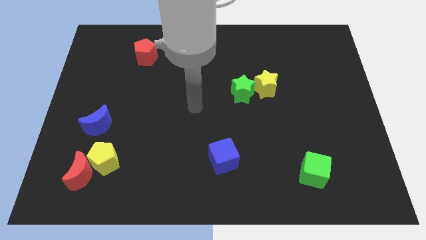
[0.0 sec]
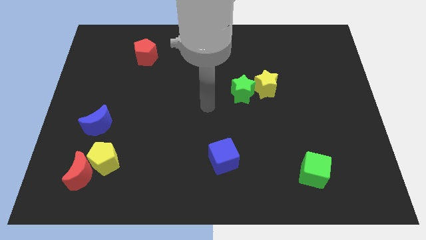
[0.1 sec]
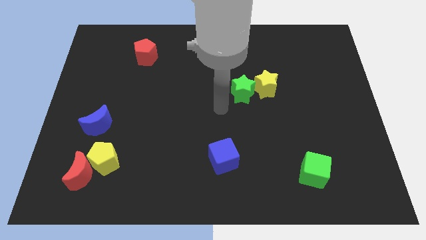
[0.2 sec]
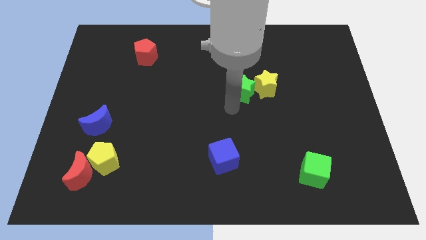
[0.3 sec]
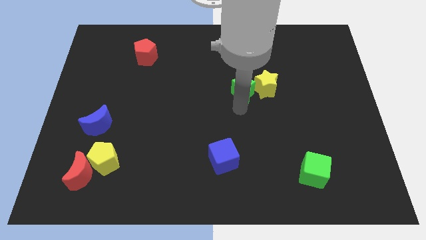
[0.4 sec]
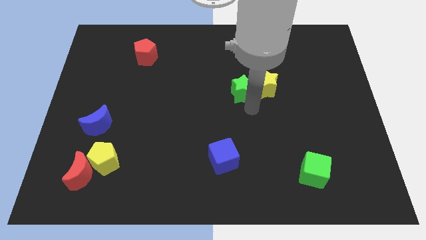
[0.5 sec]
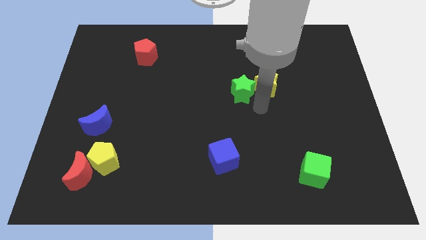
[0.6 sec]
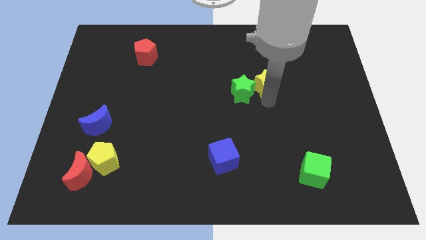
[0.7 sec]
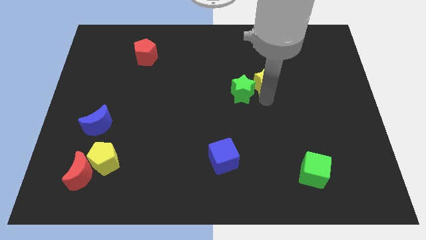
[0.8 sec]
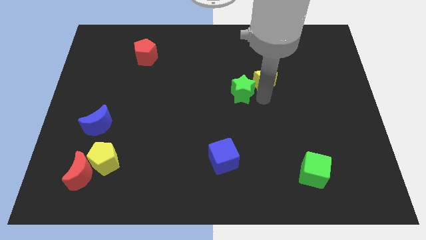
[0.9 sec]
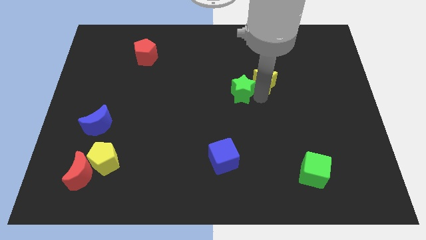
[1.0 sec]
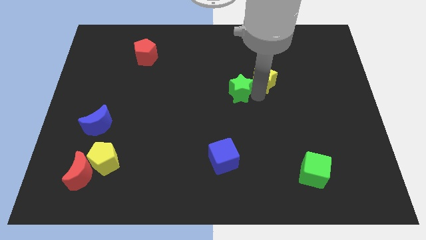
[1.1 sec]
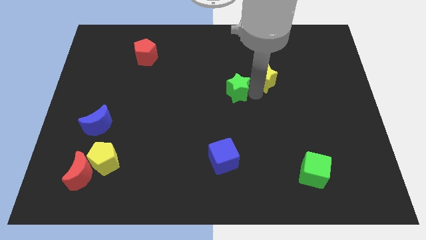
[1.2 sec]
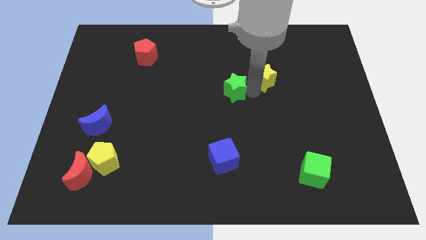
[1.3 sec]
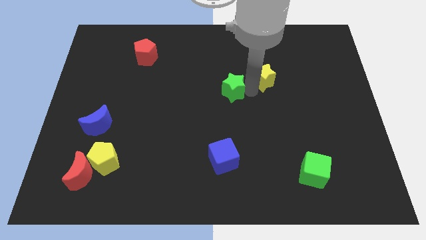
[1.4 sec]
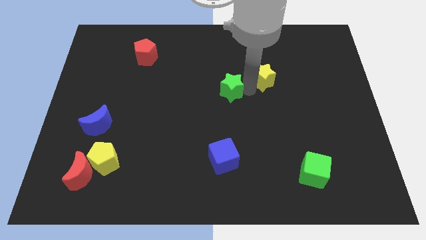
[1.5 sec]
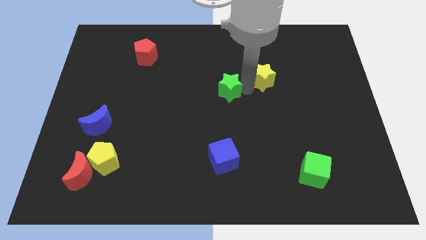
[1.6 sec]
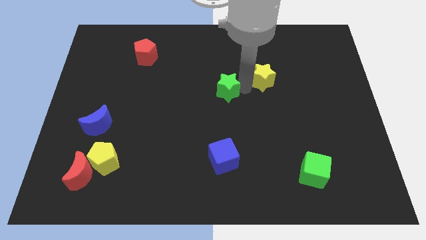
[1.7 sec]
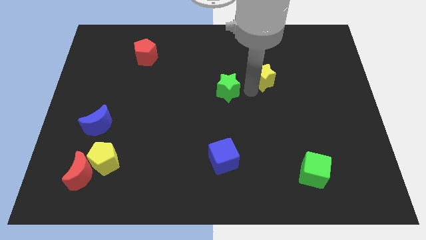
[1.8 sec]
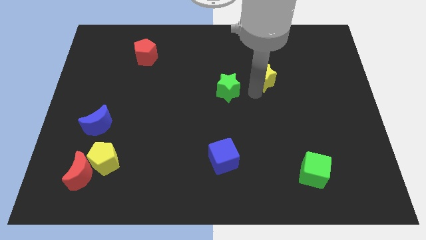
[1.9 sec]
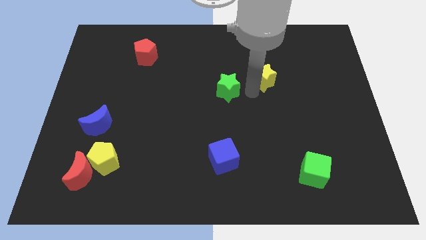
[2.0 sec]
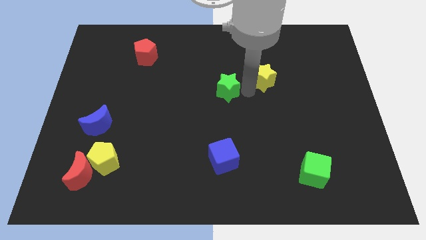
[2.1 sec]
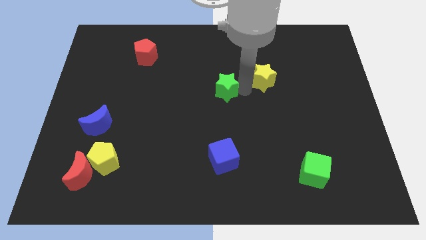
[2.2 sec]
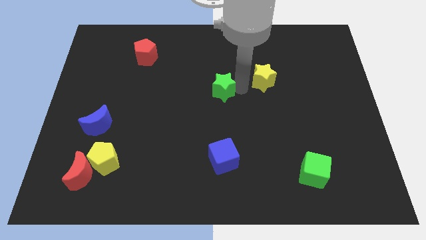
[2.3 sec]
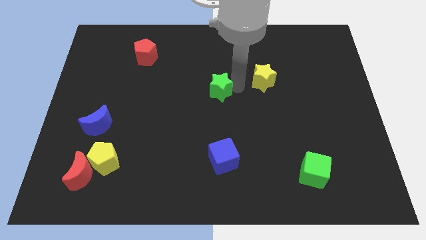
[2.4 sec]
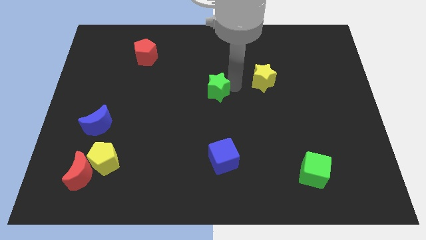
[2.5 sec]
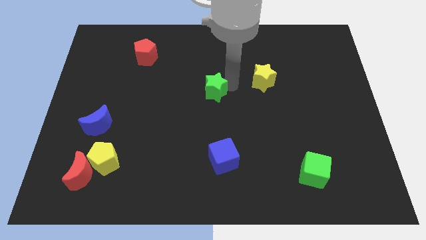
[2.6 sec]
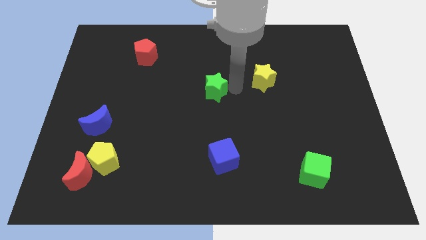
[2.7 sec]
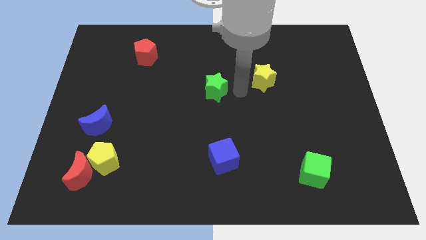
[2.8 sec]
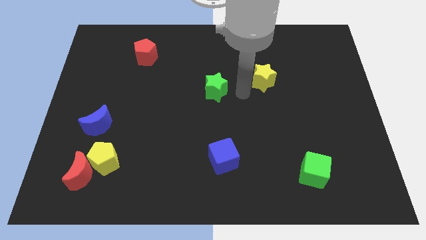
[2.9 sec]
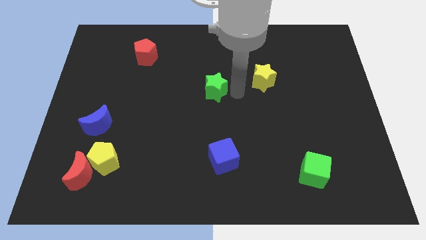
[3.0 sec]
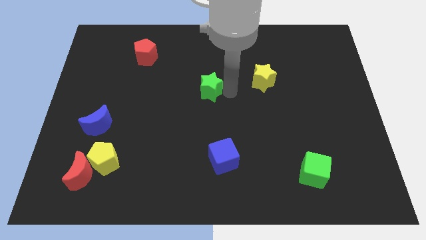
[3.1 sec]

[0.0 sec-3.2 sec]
slightly push the green star left

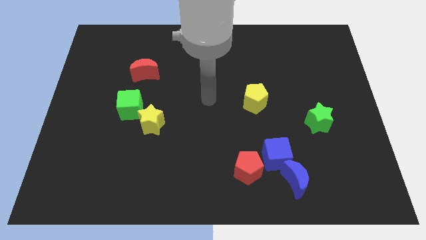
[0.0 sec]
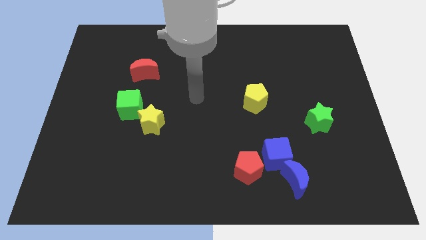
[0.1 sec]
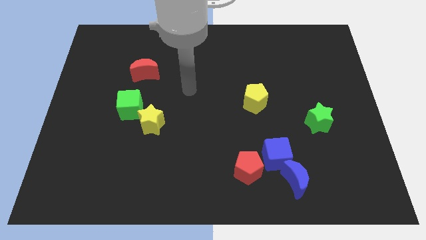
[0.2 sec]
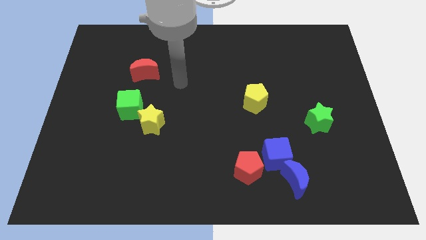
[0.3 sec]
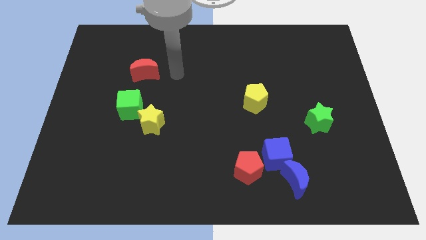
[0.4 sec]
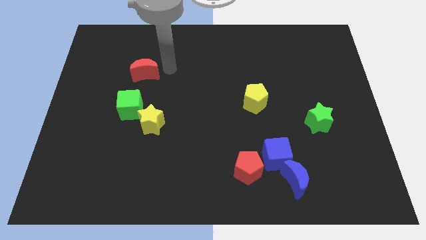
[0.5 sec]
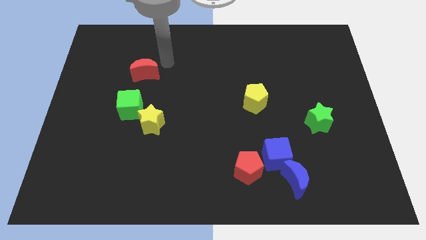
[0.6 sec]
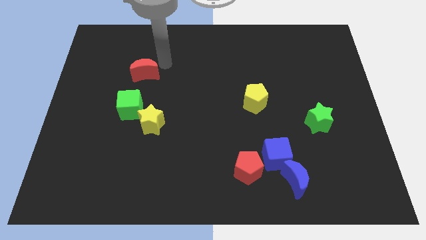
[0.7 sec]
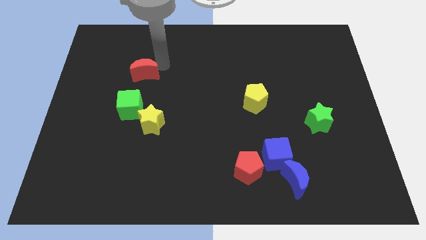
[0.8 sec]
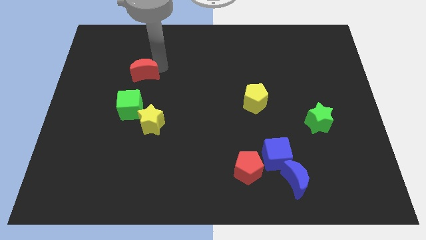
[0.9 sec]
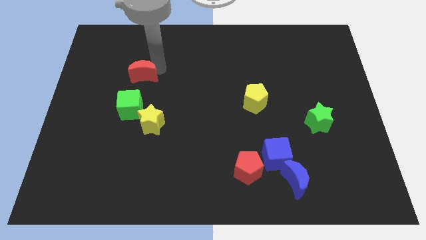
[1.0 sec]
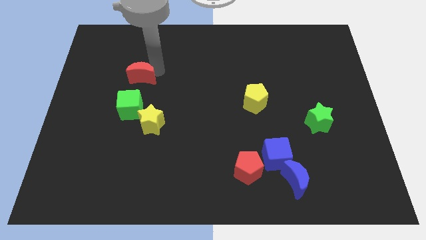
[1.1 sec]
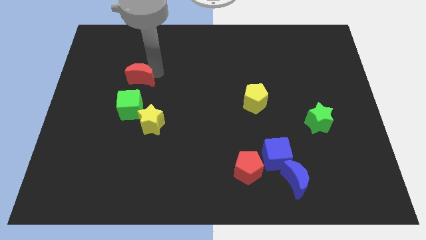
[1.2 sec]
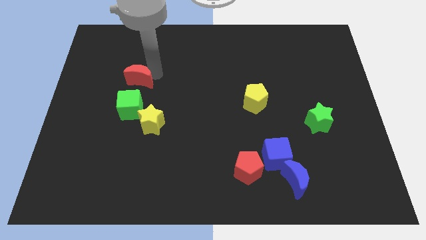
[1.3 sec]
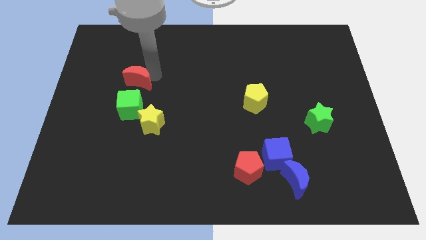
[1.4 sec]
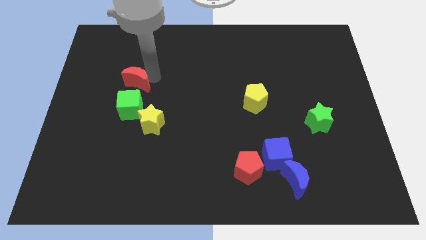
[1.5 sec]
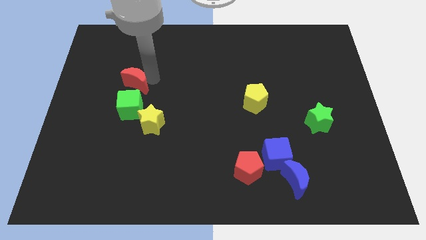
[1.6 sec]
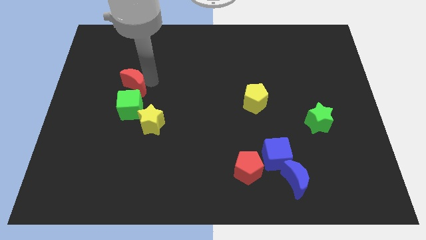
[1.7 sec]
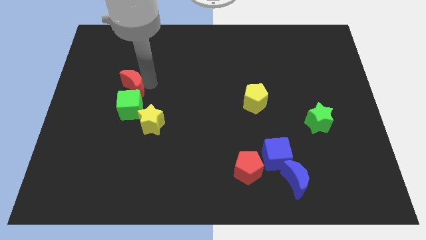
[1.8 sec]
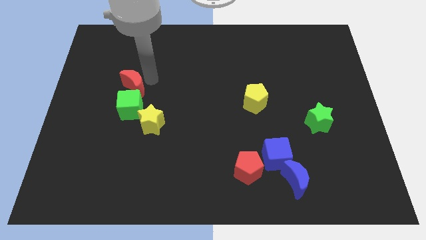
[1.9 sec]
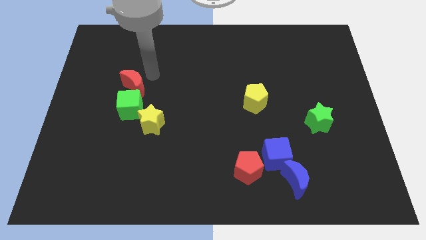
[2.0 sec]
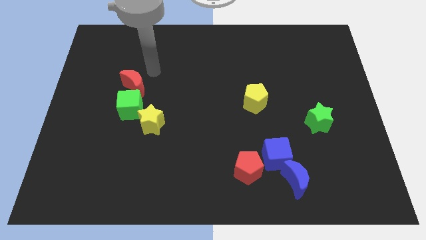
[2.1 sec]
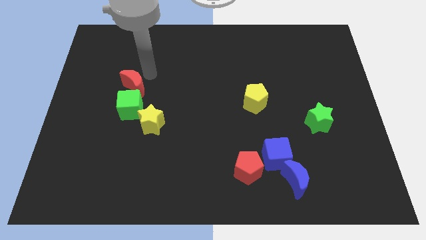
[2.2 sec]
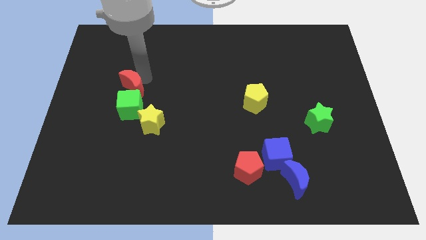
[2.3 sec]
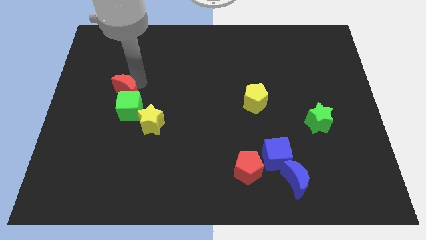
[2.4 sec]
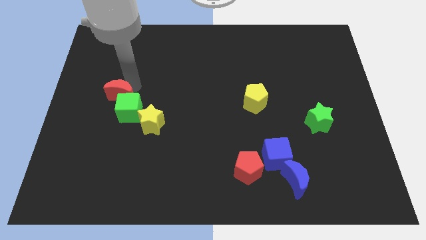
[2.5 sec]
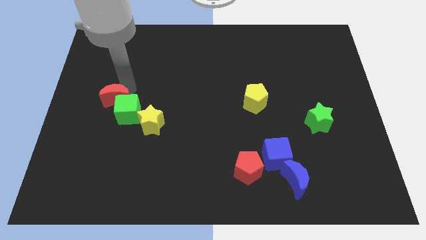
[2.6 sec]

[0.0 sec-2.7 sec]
slide the red moon down slightly

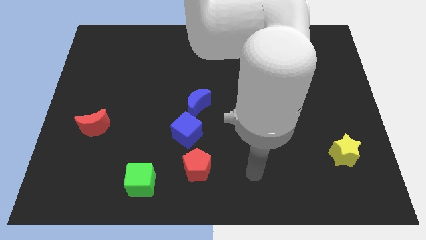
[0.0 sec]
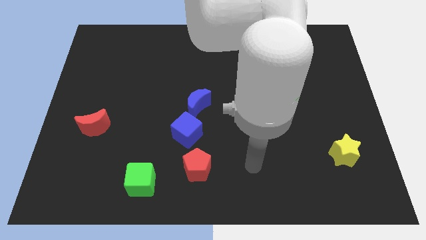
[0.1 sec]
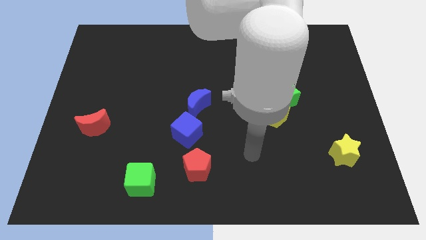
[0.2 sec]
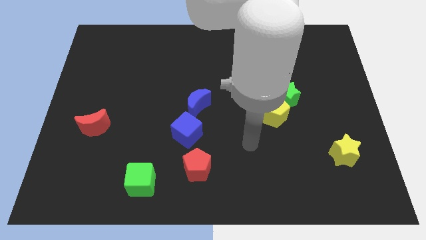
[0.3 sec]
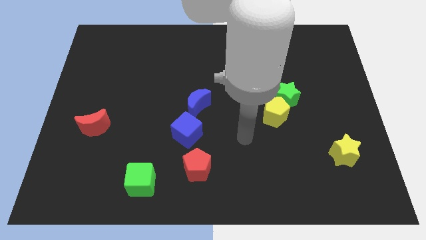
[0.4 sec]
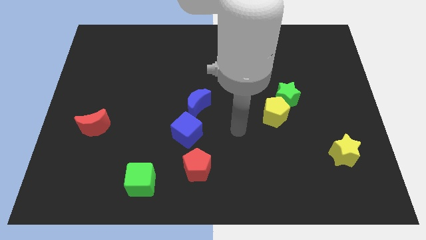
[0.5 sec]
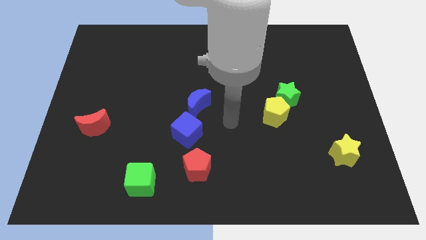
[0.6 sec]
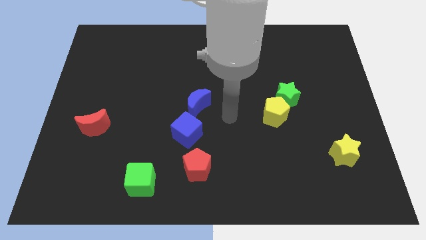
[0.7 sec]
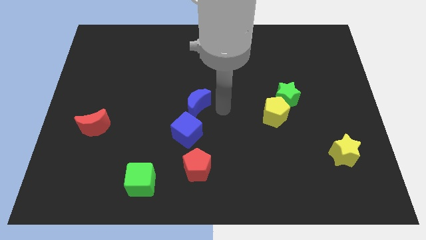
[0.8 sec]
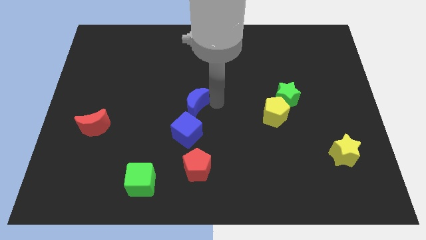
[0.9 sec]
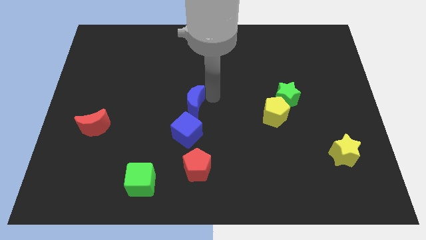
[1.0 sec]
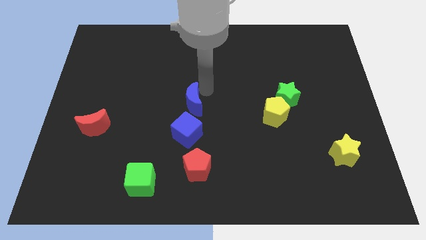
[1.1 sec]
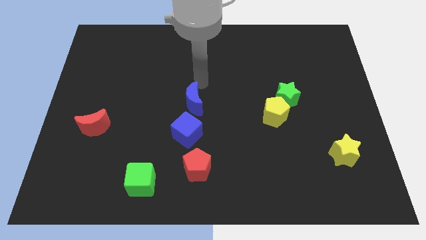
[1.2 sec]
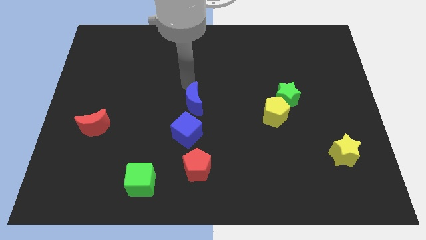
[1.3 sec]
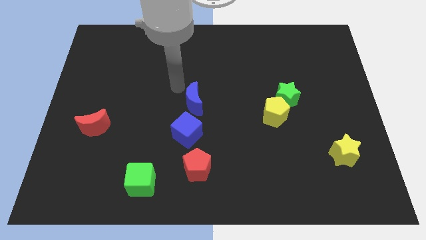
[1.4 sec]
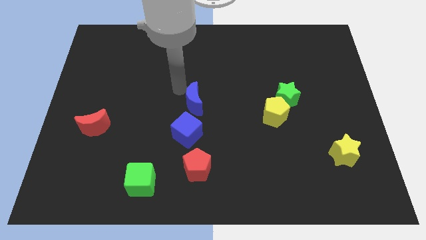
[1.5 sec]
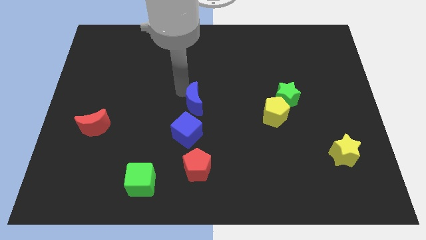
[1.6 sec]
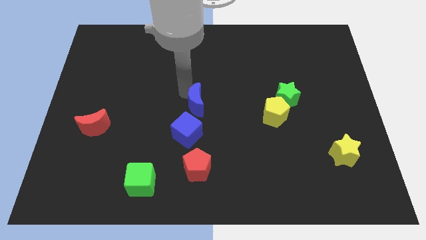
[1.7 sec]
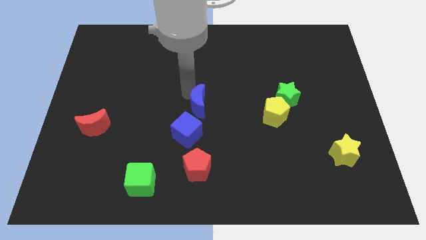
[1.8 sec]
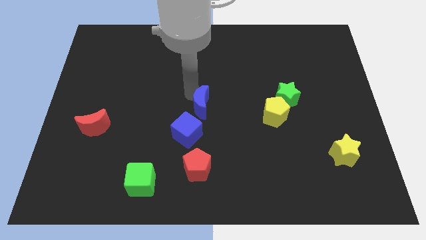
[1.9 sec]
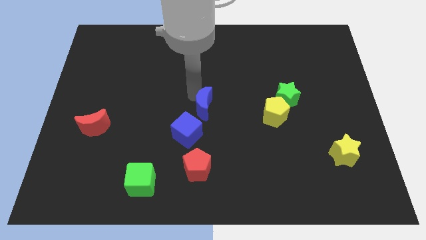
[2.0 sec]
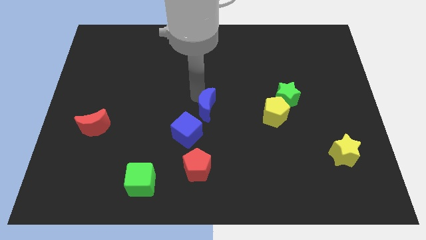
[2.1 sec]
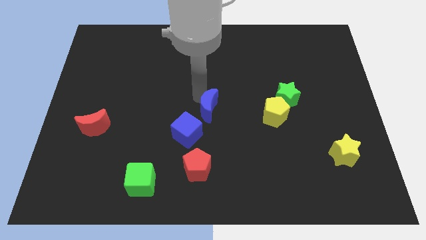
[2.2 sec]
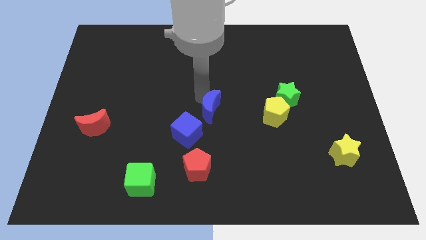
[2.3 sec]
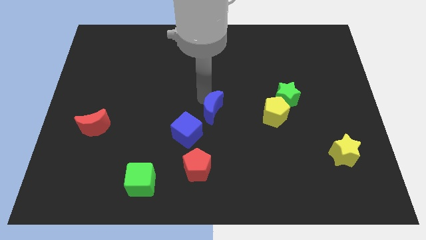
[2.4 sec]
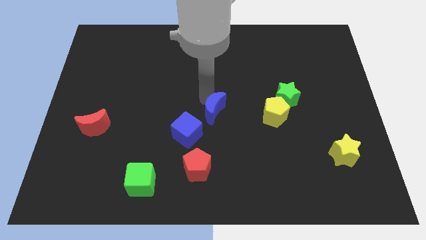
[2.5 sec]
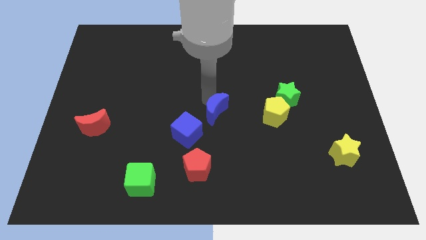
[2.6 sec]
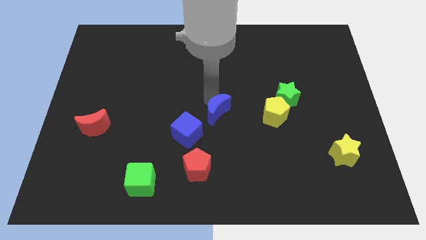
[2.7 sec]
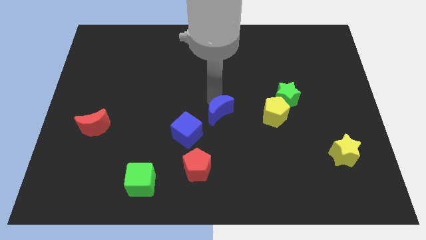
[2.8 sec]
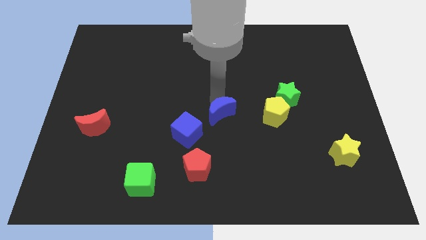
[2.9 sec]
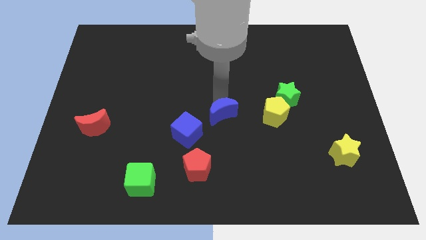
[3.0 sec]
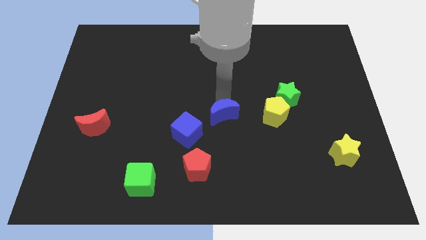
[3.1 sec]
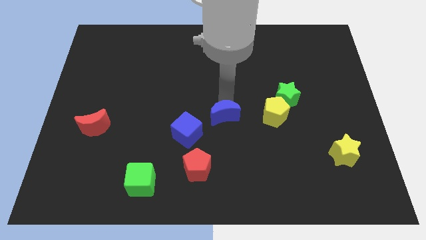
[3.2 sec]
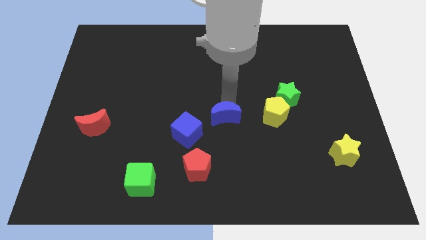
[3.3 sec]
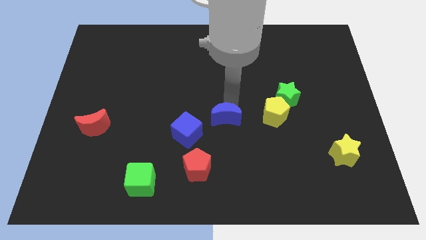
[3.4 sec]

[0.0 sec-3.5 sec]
slide the blue moon a bit downwards and right diagonally
